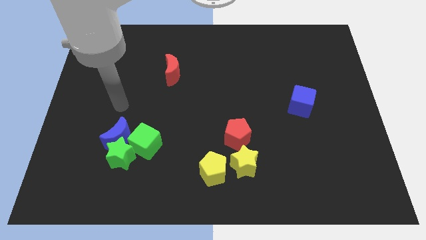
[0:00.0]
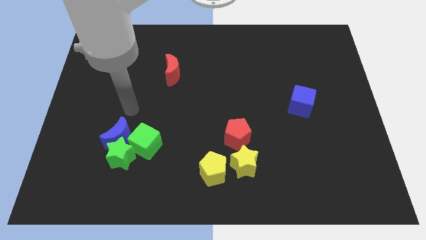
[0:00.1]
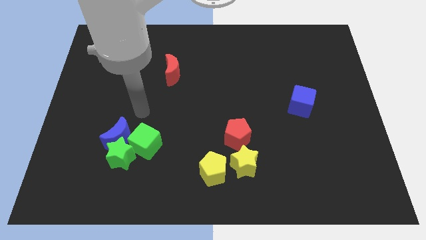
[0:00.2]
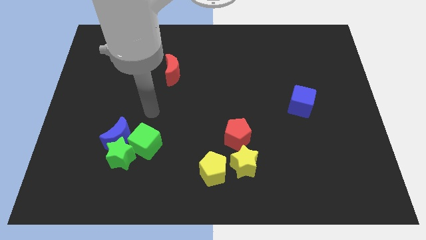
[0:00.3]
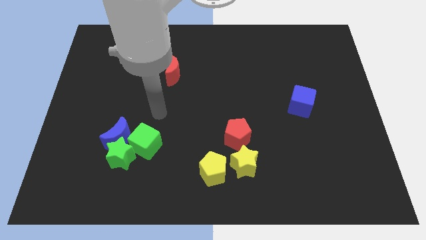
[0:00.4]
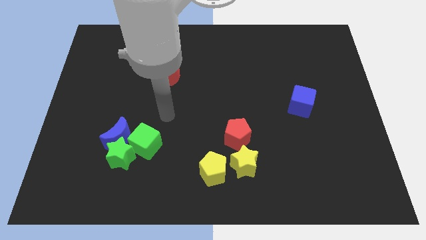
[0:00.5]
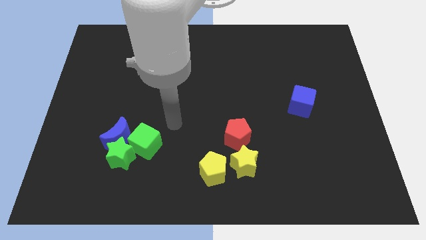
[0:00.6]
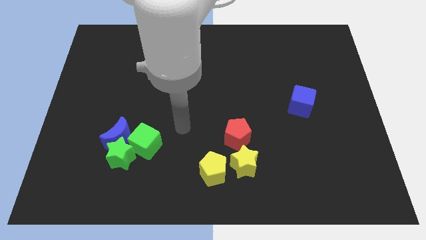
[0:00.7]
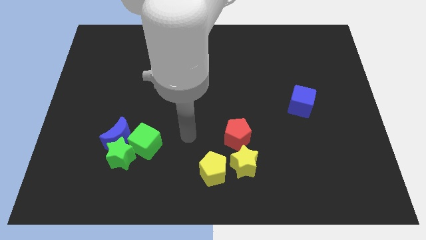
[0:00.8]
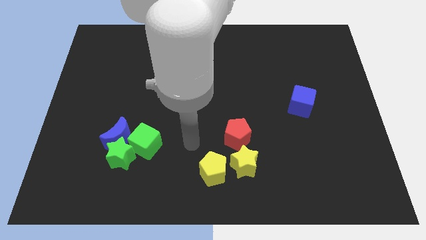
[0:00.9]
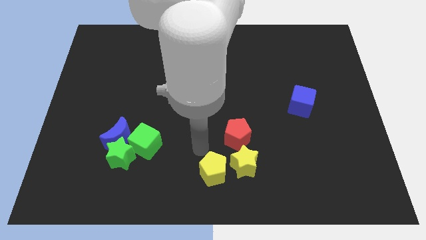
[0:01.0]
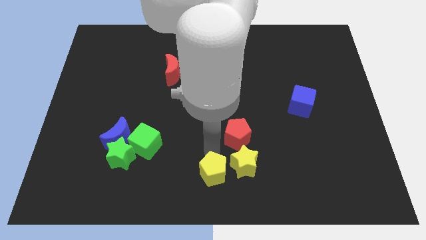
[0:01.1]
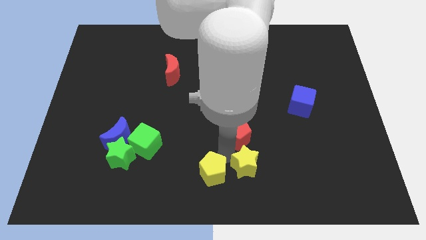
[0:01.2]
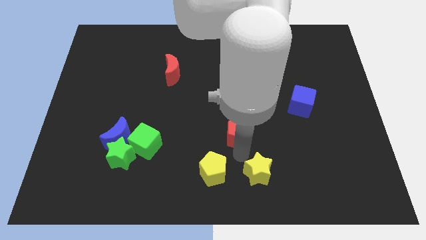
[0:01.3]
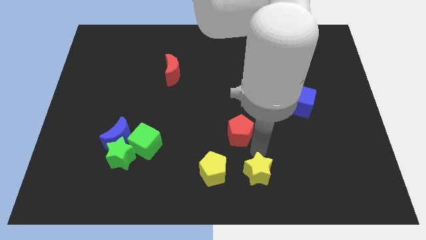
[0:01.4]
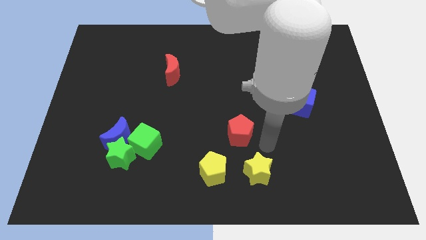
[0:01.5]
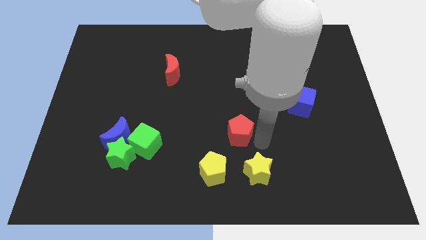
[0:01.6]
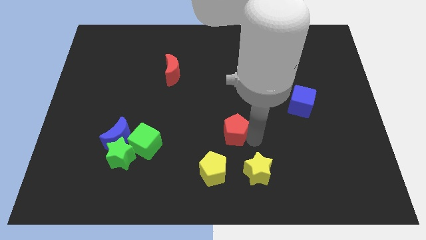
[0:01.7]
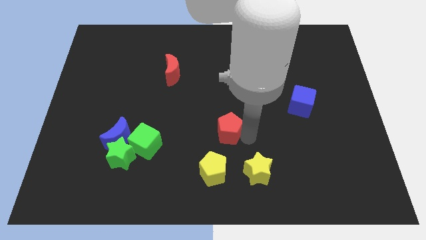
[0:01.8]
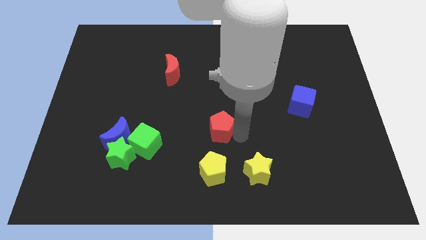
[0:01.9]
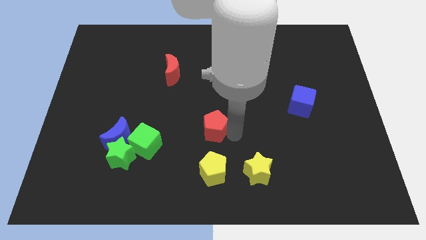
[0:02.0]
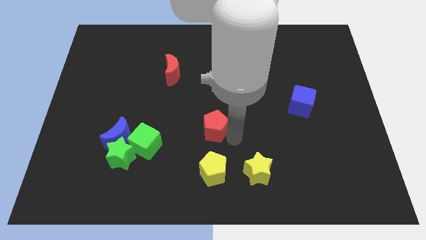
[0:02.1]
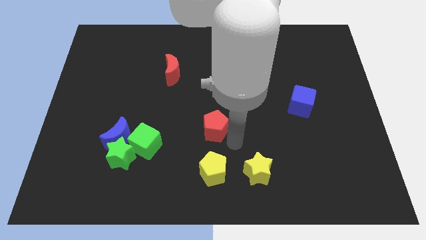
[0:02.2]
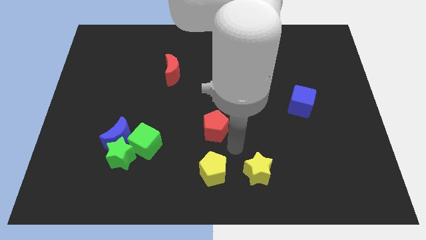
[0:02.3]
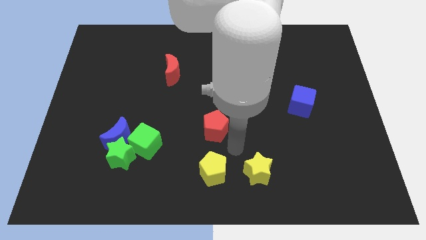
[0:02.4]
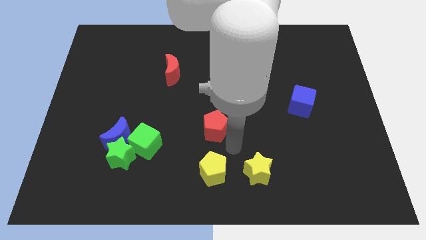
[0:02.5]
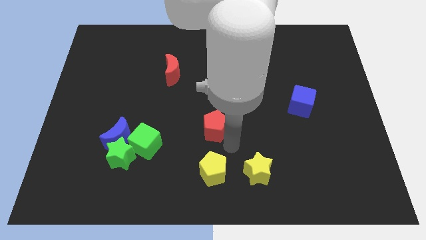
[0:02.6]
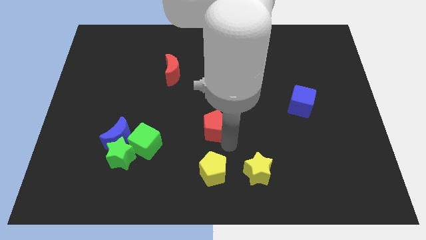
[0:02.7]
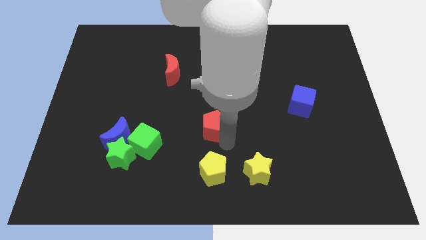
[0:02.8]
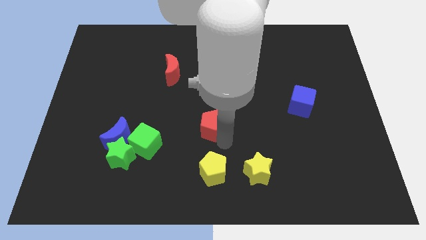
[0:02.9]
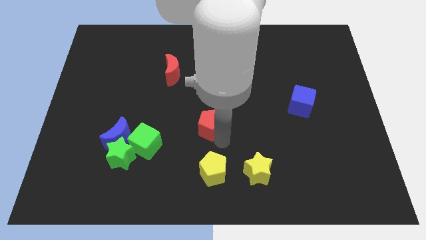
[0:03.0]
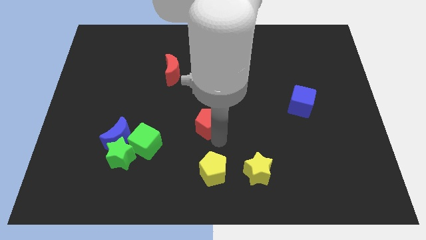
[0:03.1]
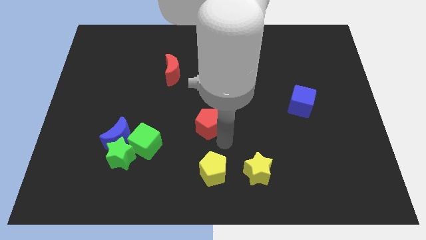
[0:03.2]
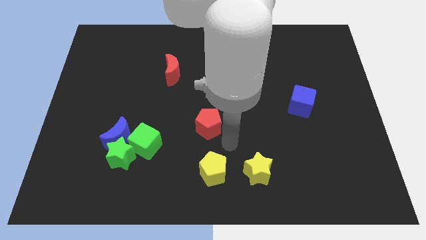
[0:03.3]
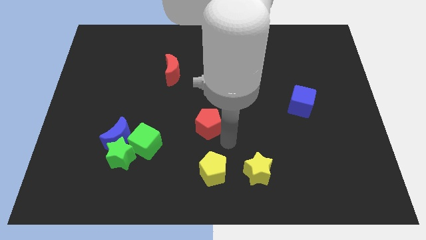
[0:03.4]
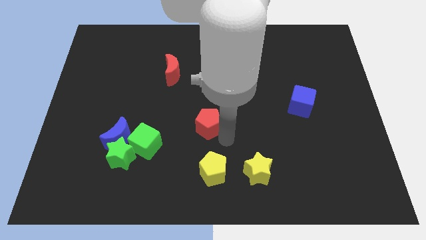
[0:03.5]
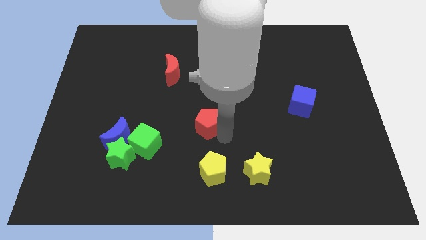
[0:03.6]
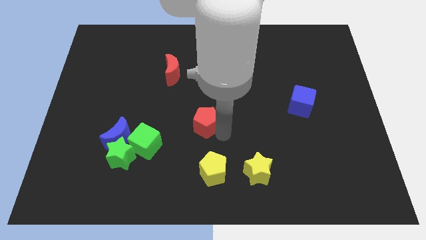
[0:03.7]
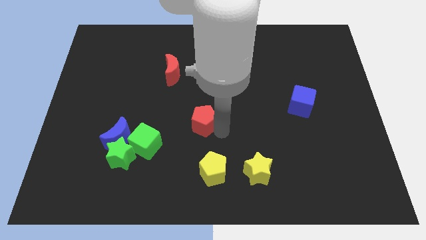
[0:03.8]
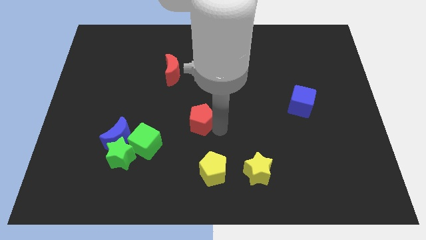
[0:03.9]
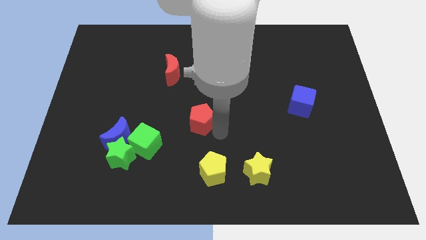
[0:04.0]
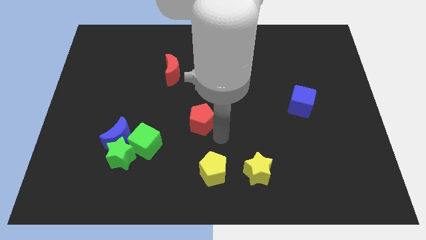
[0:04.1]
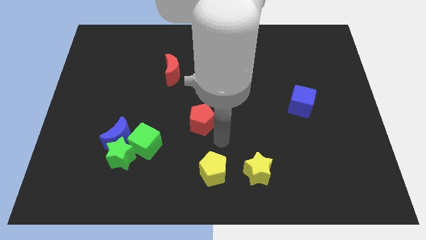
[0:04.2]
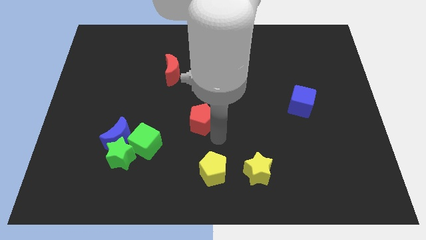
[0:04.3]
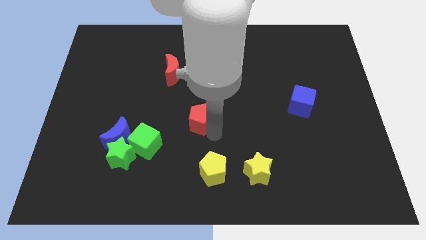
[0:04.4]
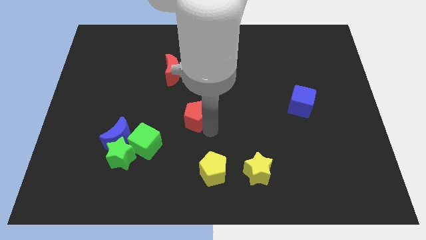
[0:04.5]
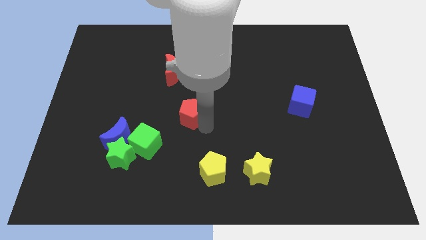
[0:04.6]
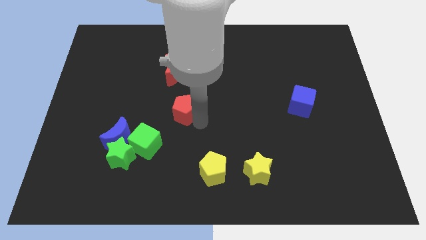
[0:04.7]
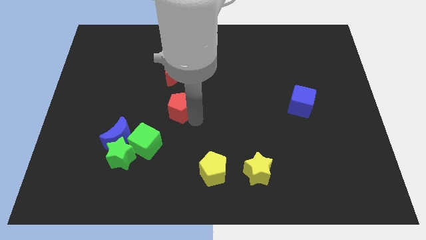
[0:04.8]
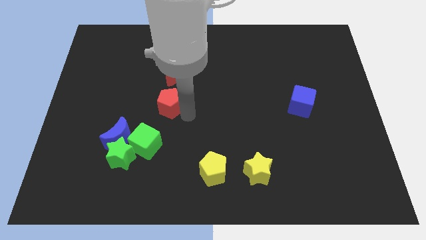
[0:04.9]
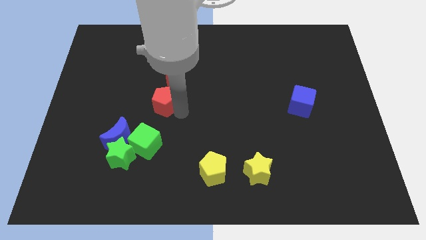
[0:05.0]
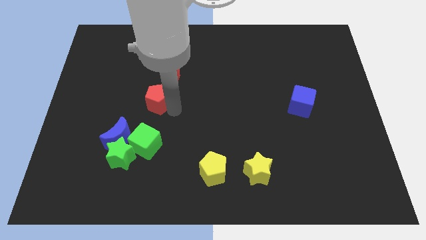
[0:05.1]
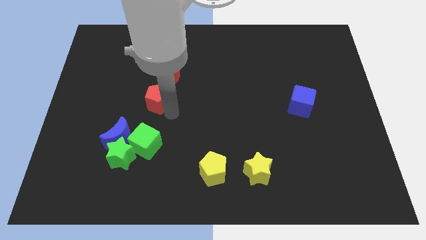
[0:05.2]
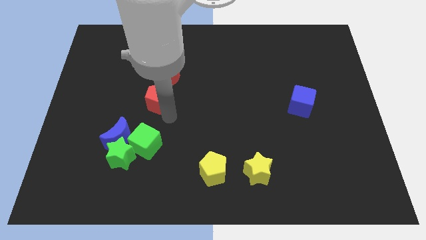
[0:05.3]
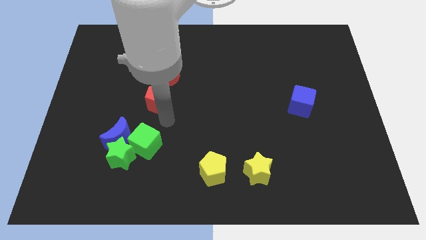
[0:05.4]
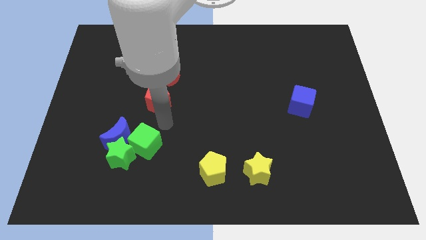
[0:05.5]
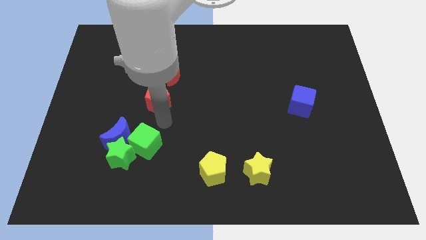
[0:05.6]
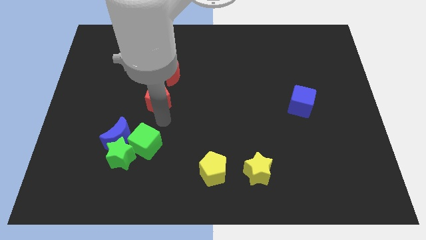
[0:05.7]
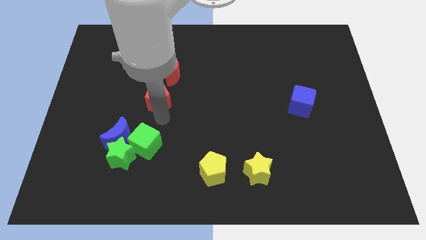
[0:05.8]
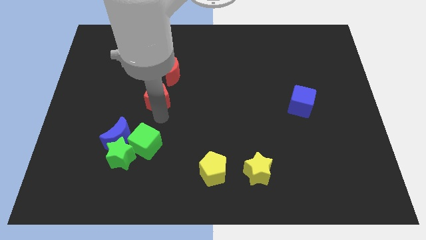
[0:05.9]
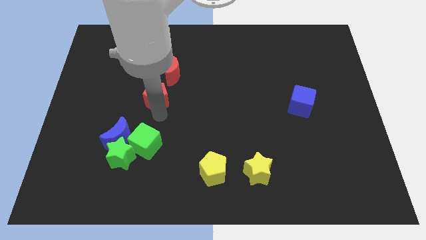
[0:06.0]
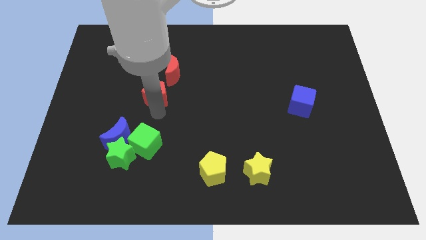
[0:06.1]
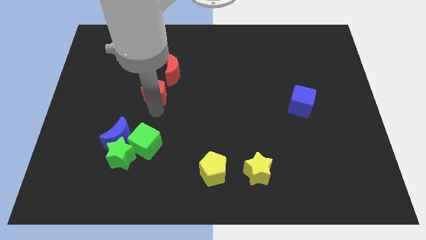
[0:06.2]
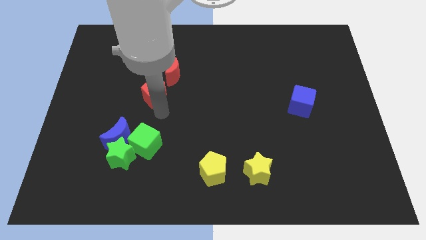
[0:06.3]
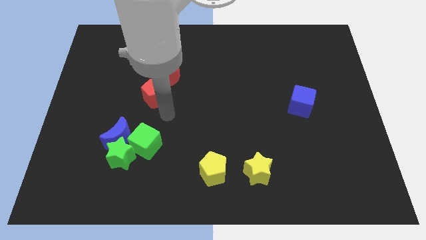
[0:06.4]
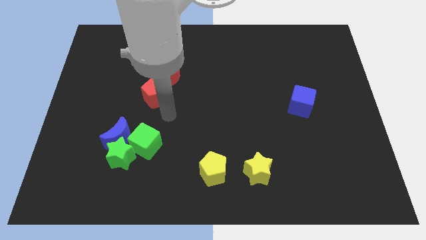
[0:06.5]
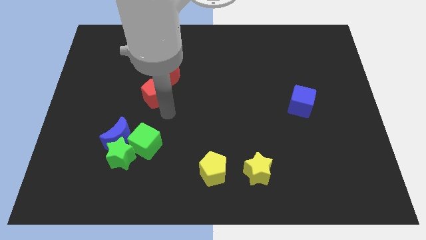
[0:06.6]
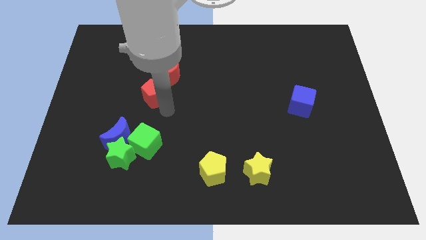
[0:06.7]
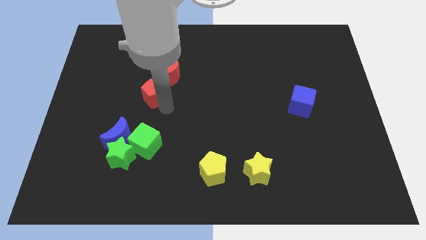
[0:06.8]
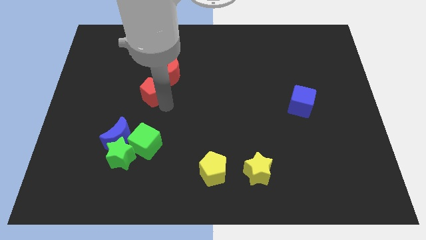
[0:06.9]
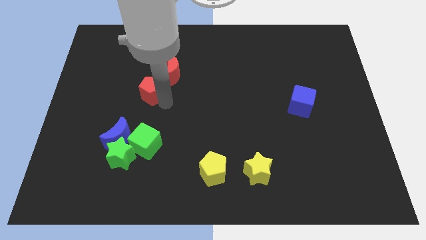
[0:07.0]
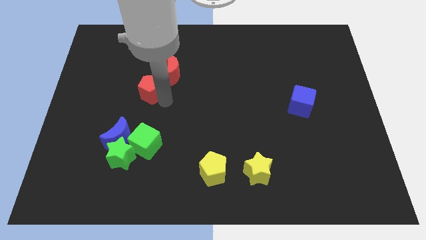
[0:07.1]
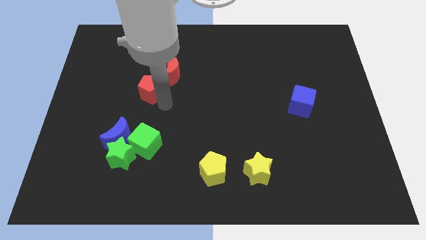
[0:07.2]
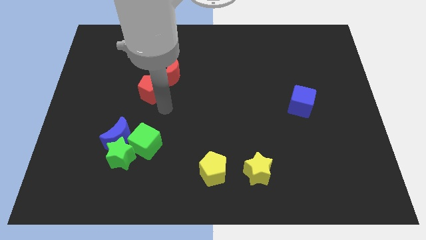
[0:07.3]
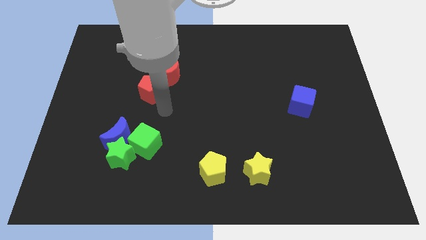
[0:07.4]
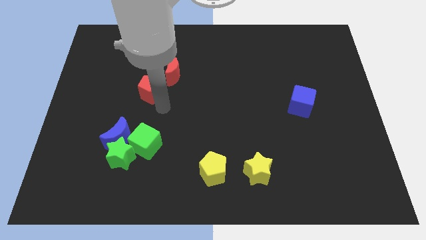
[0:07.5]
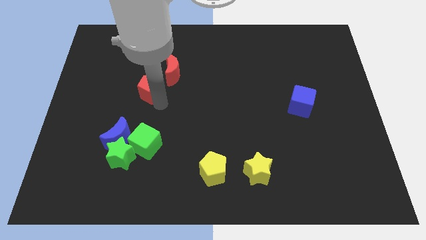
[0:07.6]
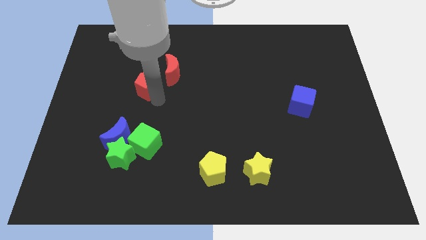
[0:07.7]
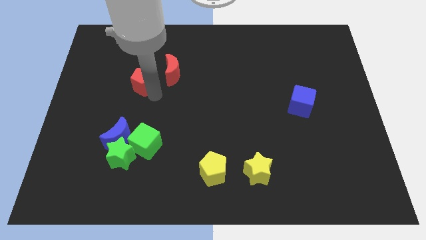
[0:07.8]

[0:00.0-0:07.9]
put the red pentagon to the left side of the red moon
